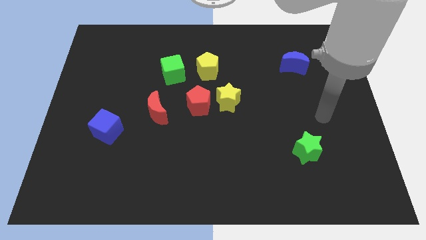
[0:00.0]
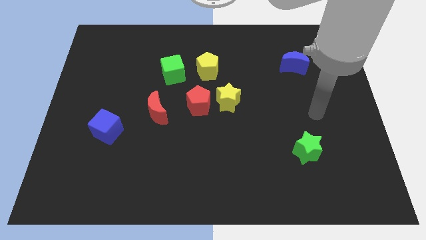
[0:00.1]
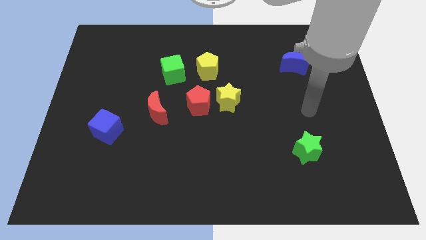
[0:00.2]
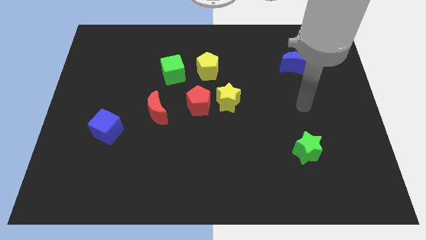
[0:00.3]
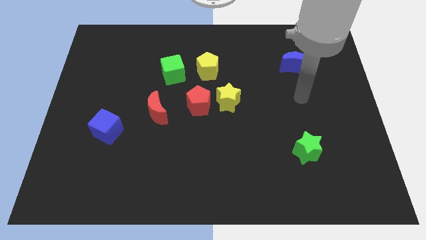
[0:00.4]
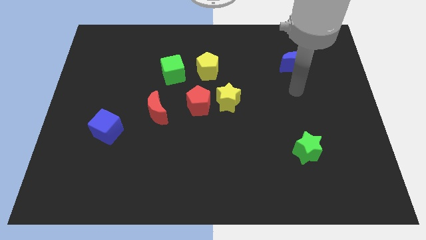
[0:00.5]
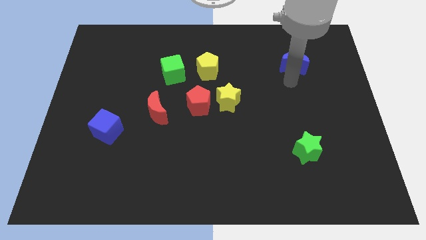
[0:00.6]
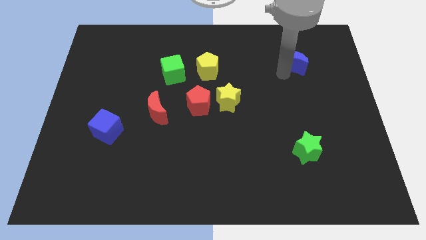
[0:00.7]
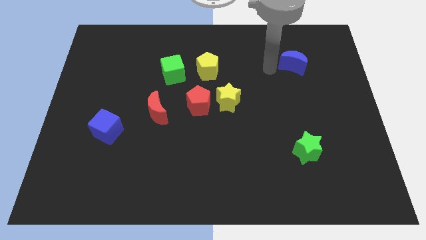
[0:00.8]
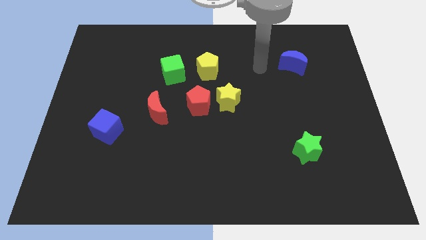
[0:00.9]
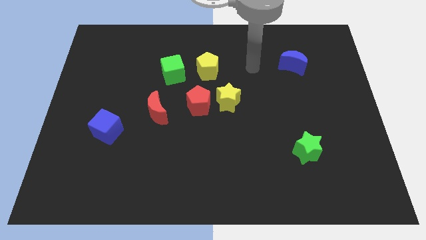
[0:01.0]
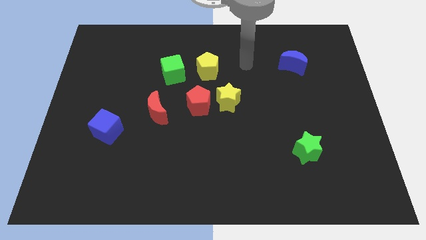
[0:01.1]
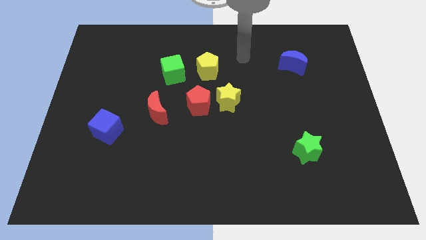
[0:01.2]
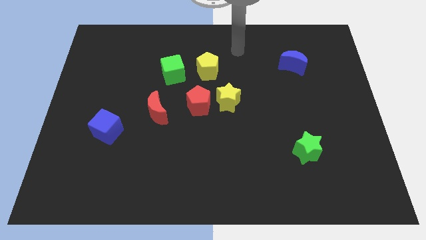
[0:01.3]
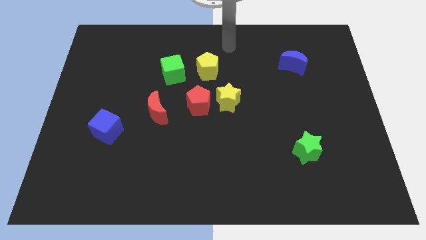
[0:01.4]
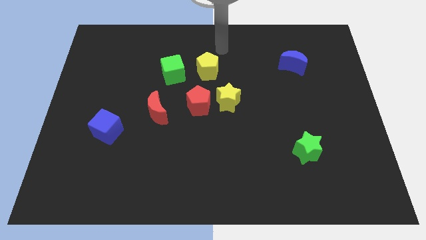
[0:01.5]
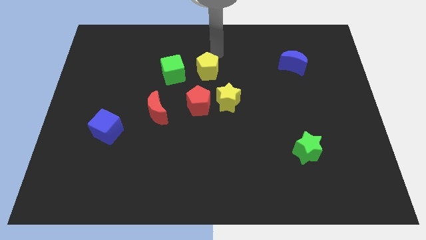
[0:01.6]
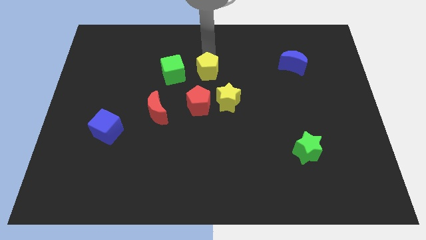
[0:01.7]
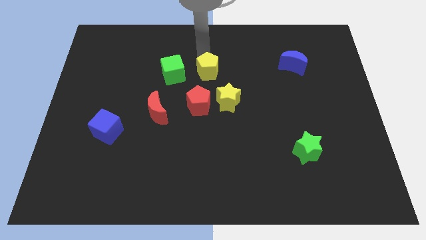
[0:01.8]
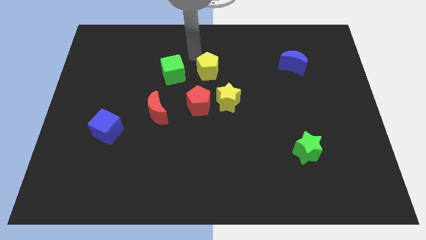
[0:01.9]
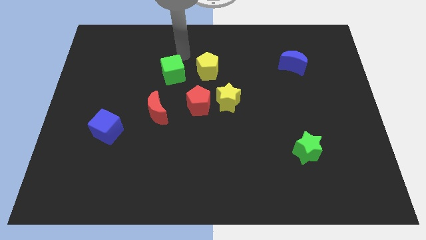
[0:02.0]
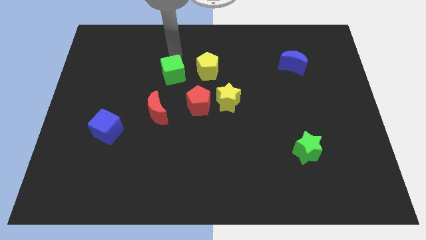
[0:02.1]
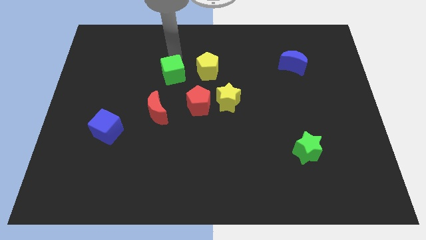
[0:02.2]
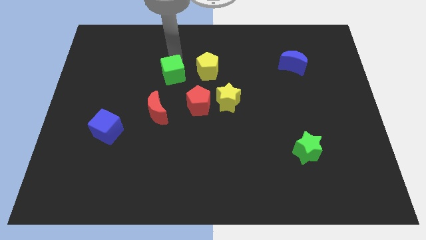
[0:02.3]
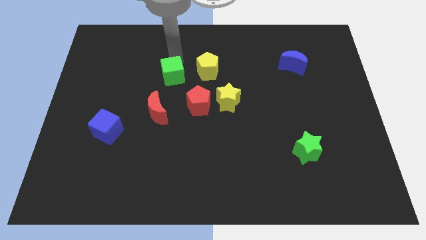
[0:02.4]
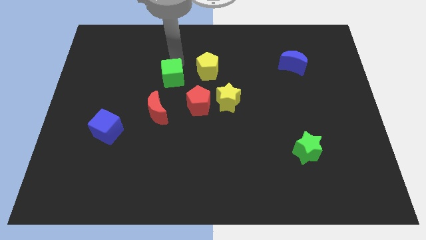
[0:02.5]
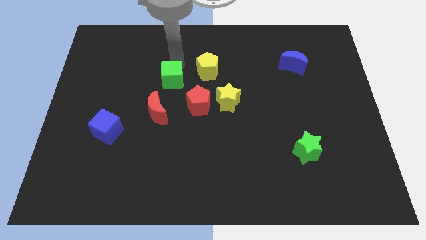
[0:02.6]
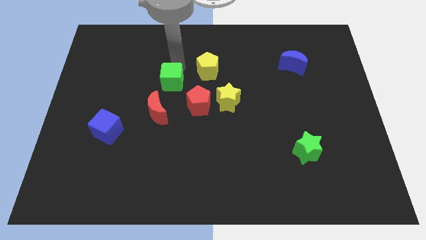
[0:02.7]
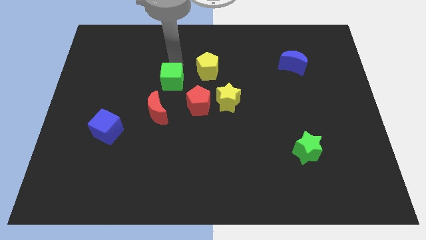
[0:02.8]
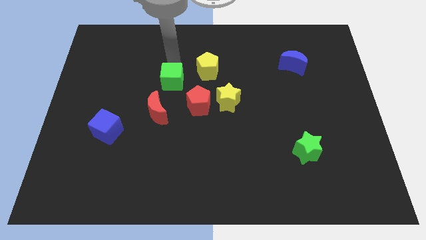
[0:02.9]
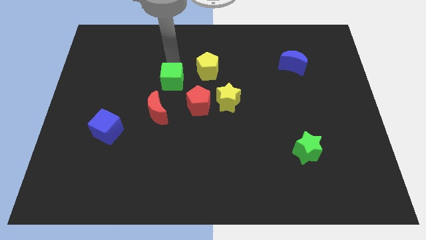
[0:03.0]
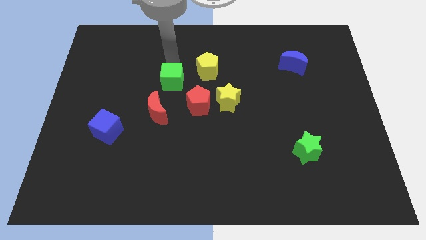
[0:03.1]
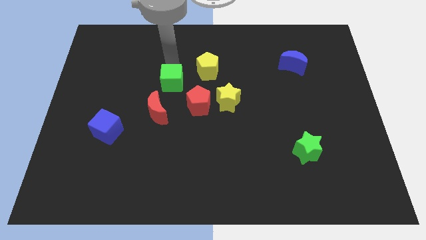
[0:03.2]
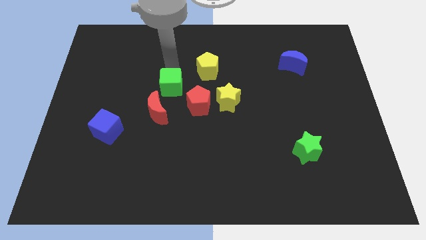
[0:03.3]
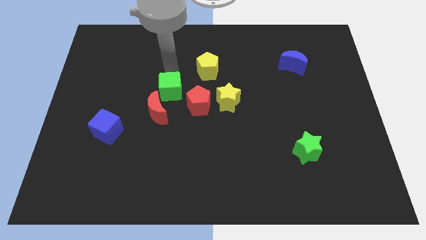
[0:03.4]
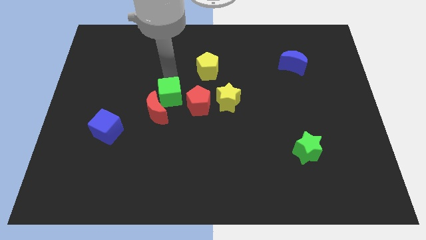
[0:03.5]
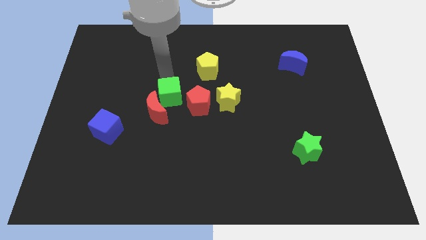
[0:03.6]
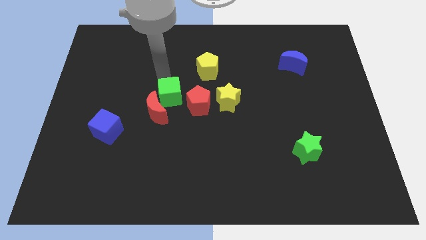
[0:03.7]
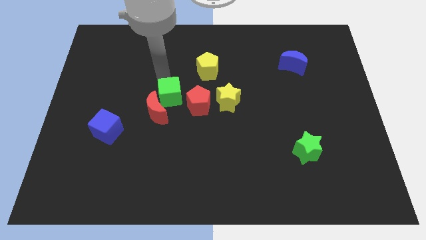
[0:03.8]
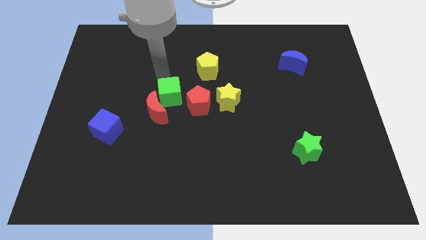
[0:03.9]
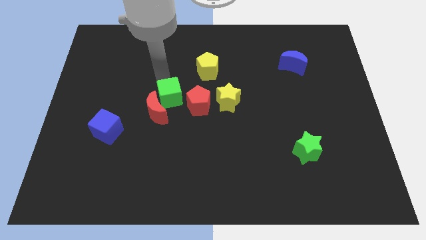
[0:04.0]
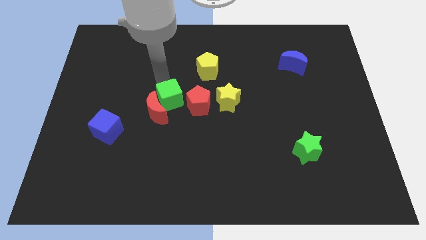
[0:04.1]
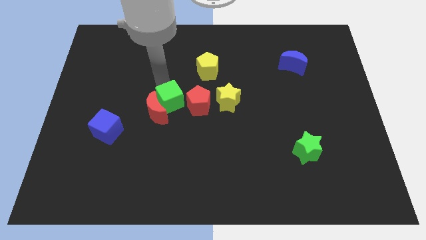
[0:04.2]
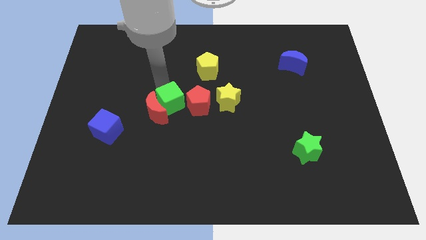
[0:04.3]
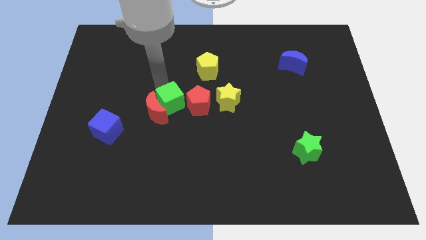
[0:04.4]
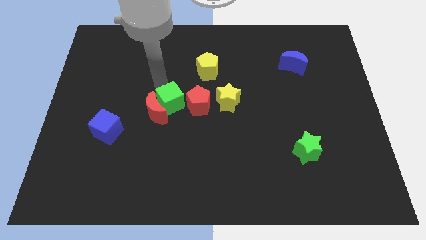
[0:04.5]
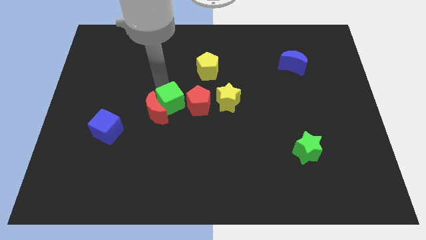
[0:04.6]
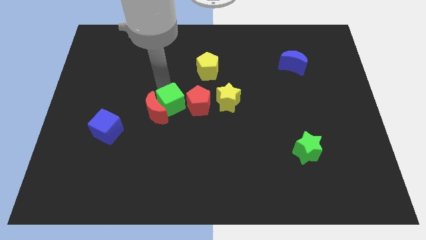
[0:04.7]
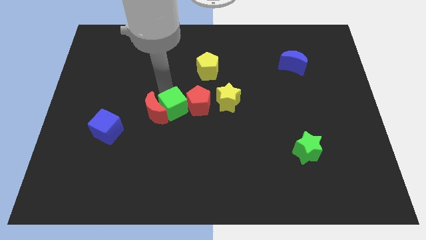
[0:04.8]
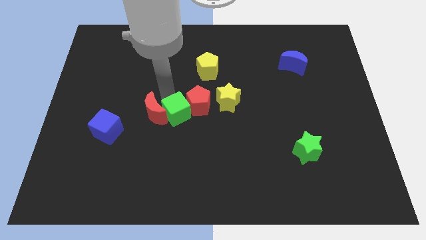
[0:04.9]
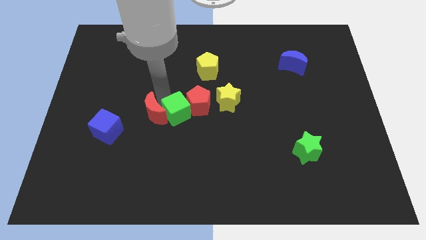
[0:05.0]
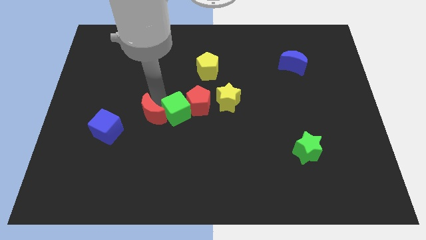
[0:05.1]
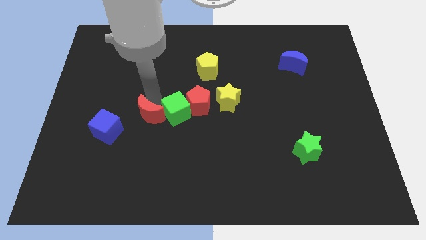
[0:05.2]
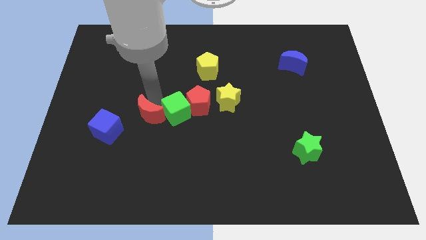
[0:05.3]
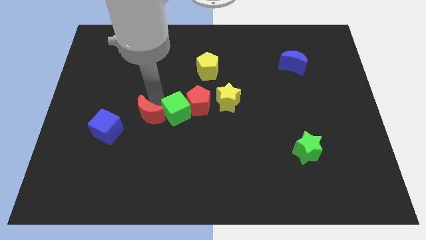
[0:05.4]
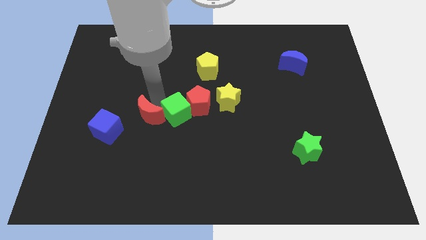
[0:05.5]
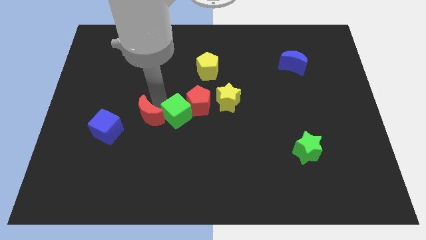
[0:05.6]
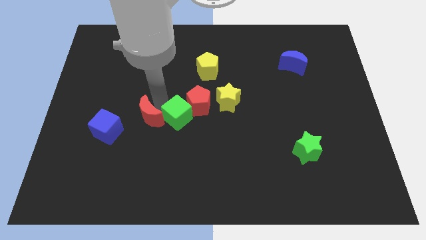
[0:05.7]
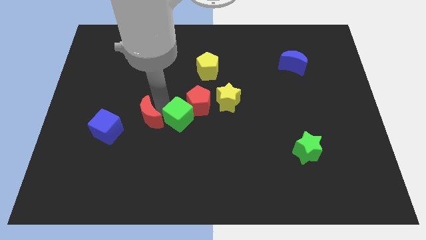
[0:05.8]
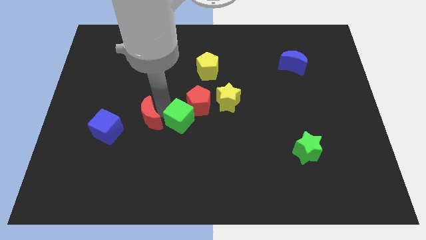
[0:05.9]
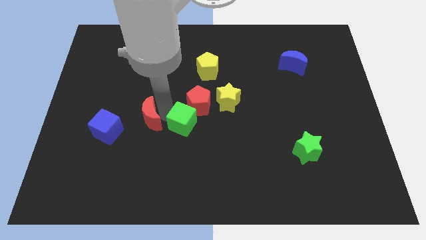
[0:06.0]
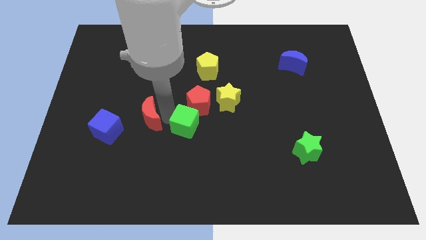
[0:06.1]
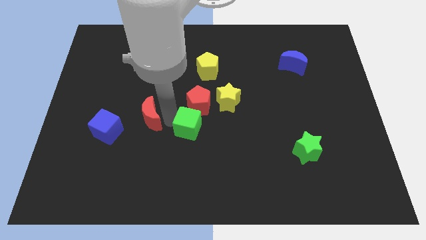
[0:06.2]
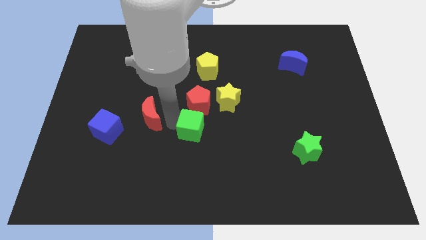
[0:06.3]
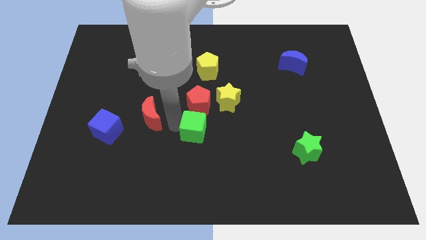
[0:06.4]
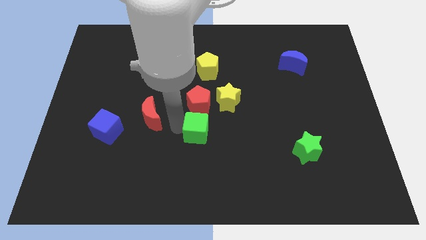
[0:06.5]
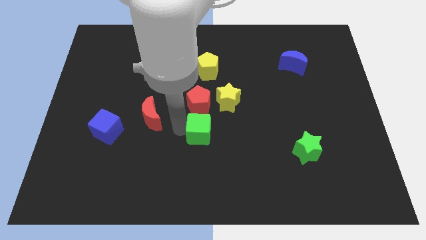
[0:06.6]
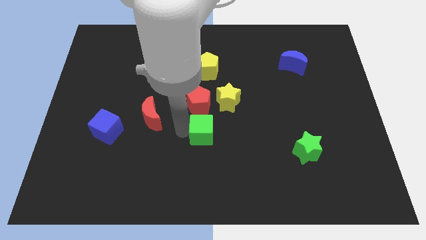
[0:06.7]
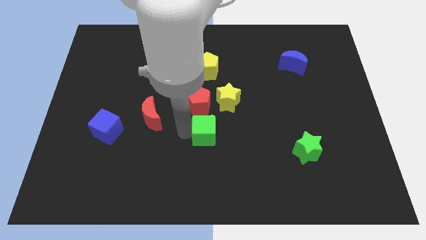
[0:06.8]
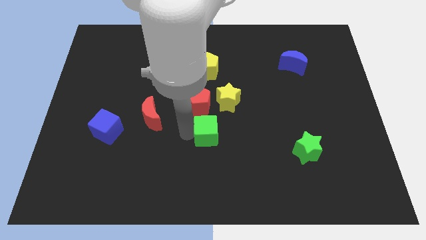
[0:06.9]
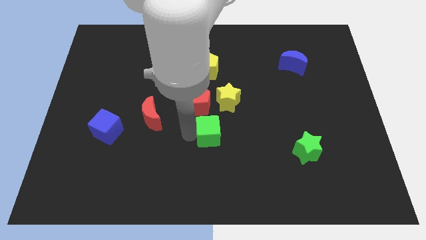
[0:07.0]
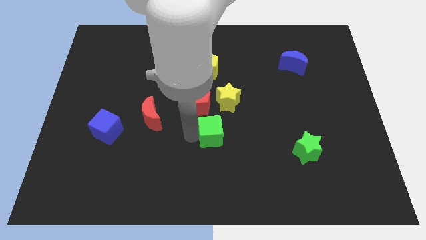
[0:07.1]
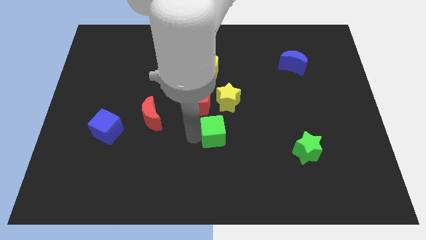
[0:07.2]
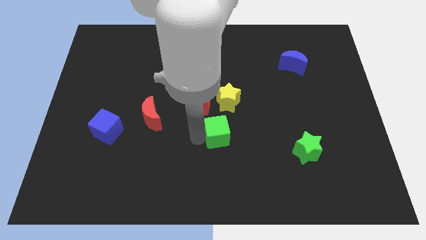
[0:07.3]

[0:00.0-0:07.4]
push the green cube down and then to the right
